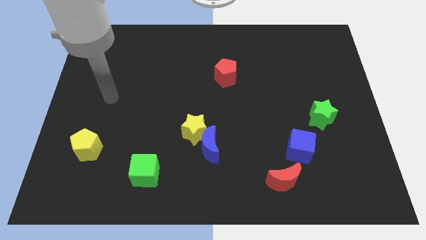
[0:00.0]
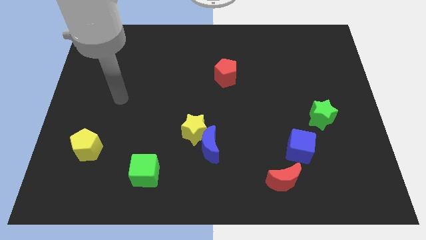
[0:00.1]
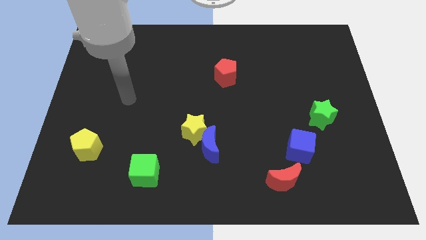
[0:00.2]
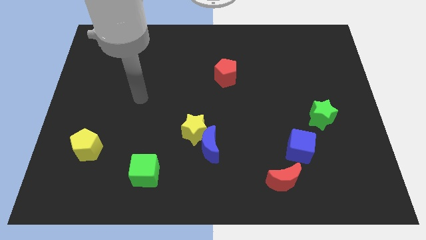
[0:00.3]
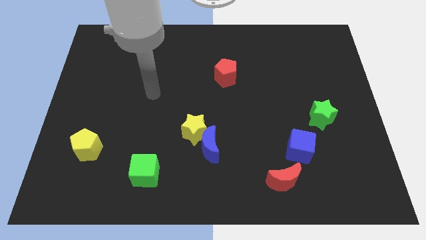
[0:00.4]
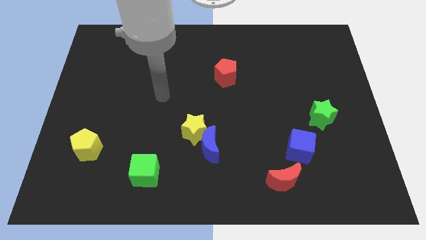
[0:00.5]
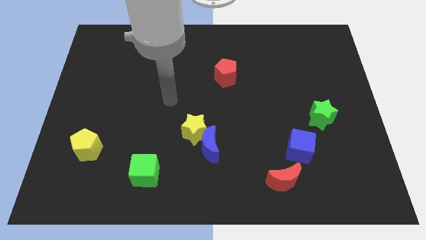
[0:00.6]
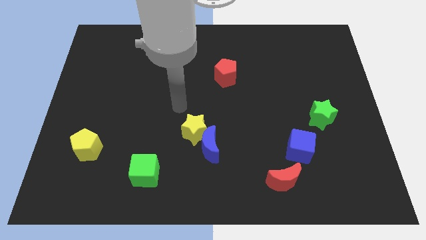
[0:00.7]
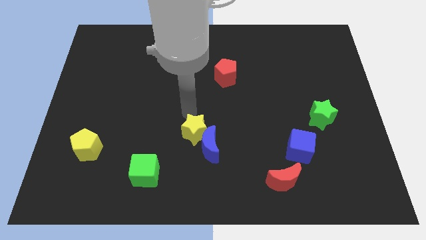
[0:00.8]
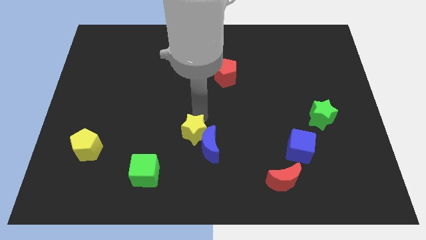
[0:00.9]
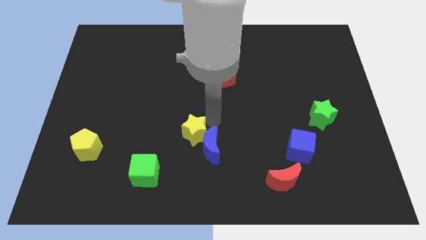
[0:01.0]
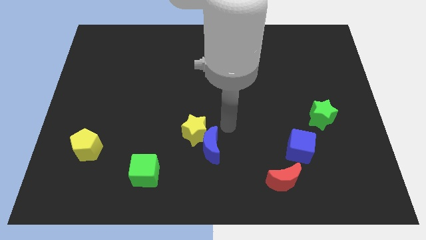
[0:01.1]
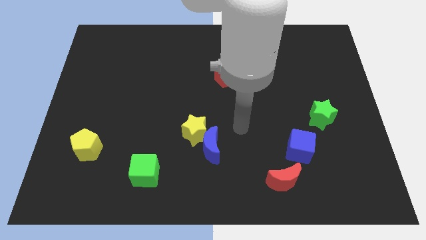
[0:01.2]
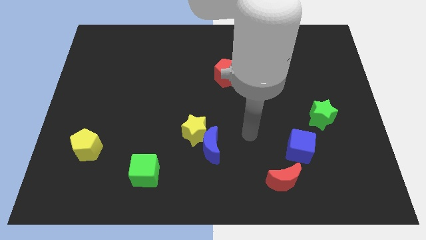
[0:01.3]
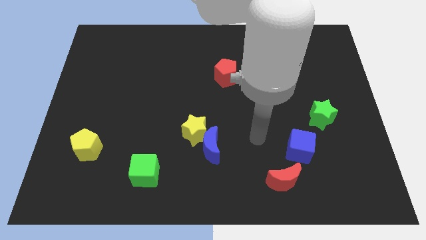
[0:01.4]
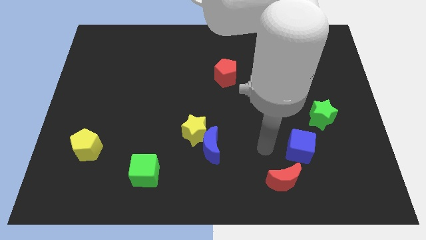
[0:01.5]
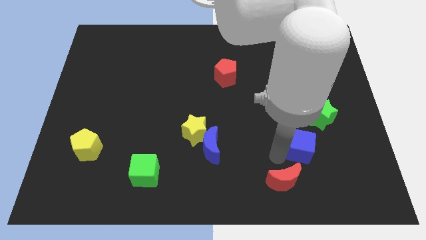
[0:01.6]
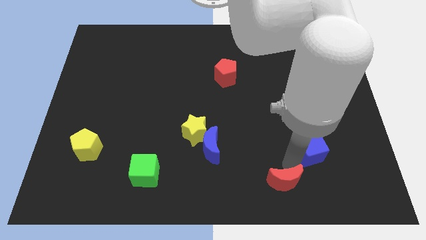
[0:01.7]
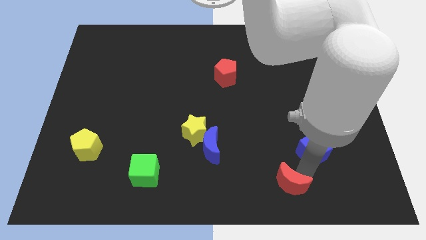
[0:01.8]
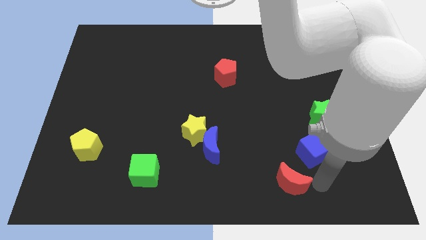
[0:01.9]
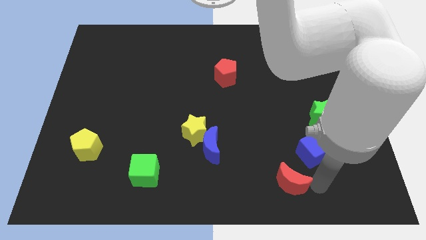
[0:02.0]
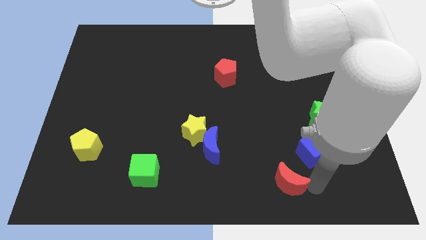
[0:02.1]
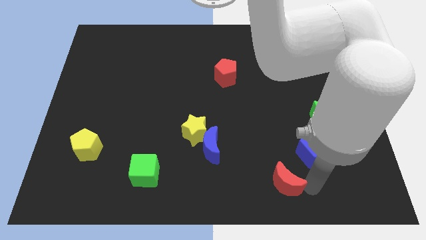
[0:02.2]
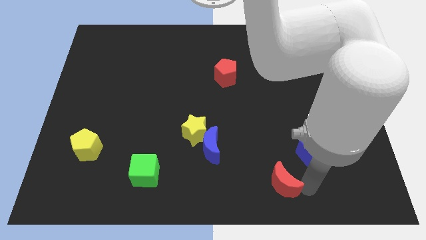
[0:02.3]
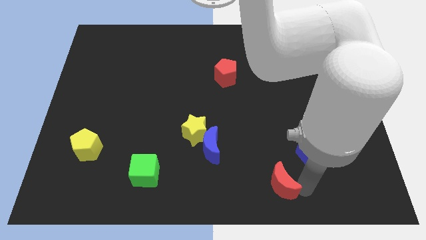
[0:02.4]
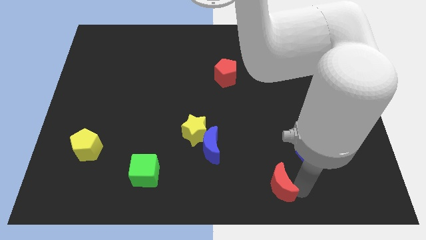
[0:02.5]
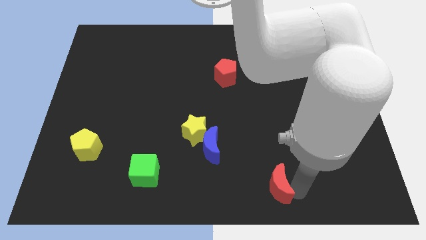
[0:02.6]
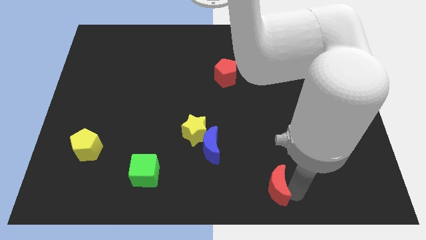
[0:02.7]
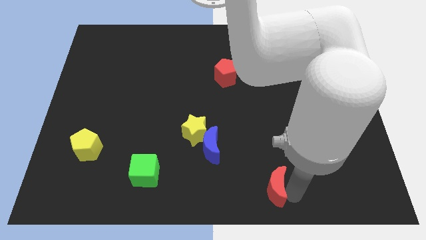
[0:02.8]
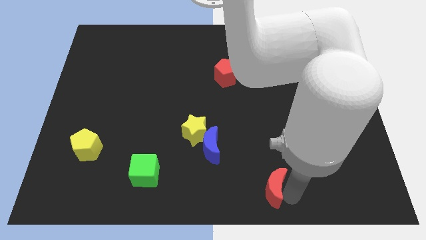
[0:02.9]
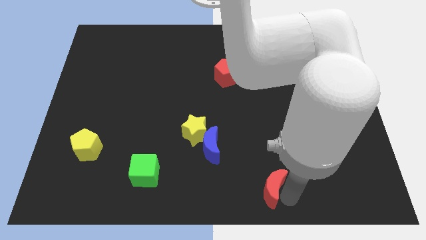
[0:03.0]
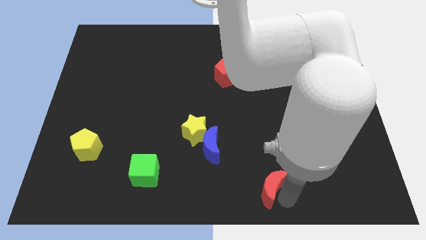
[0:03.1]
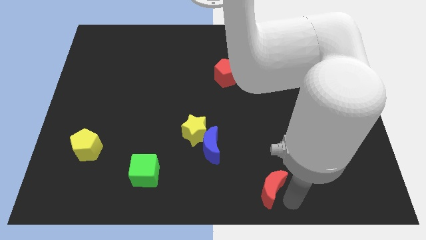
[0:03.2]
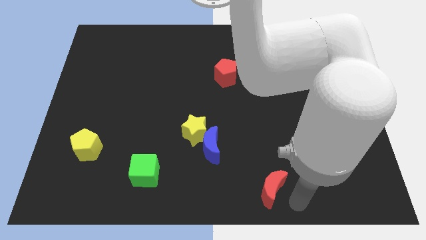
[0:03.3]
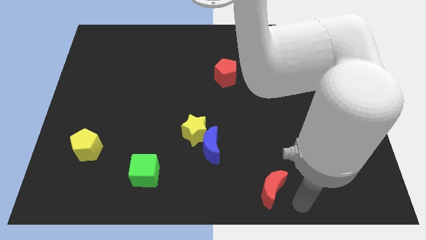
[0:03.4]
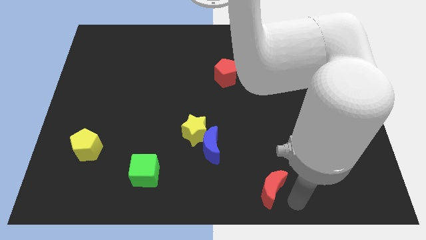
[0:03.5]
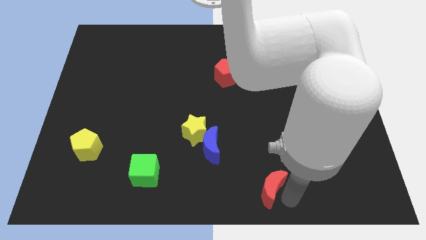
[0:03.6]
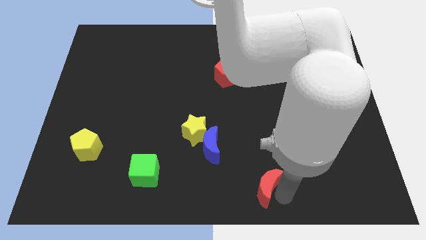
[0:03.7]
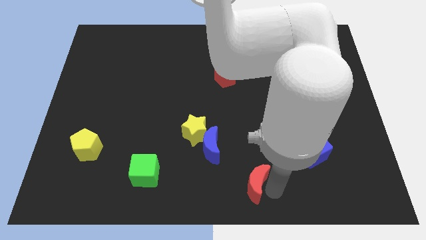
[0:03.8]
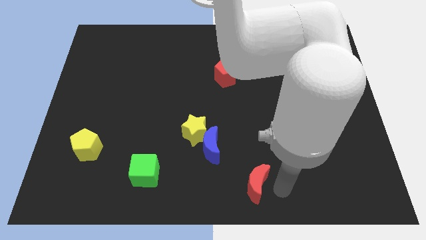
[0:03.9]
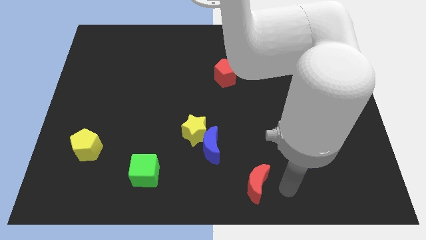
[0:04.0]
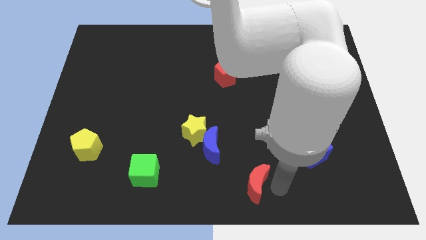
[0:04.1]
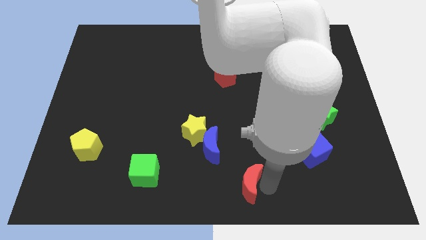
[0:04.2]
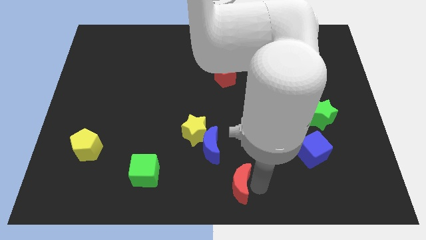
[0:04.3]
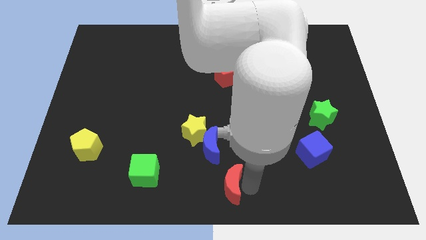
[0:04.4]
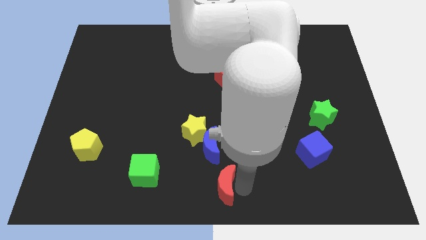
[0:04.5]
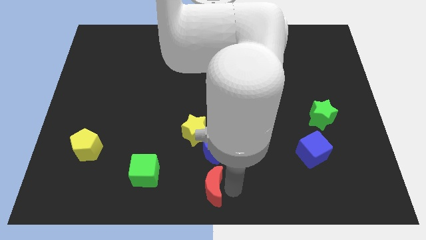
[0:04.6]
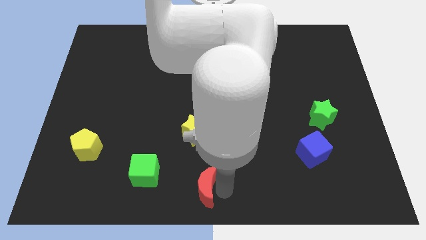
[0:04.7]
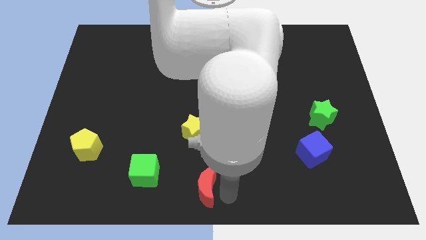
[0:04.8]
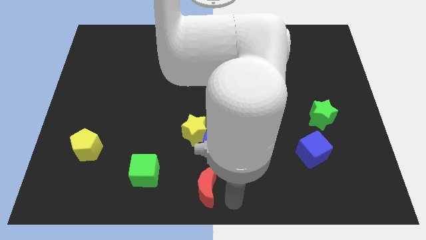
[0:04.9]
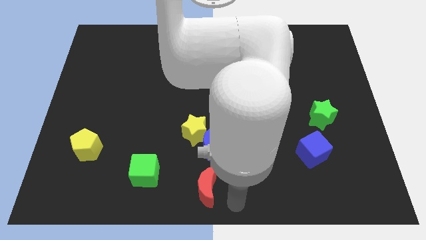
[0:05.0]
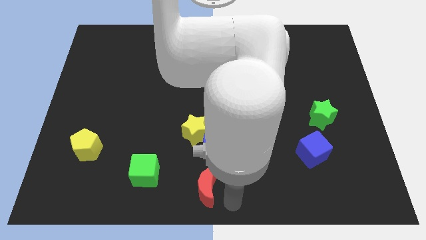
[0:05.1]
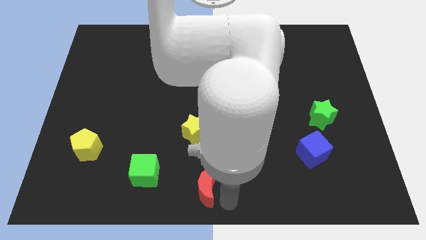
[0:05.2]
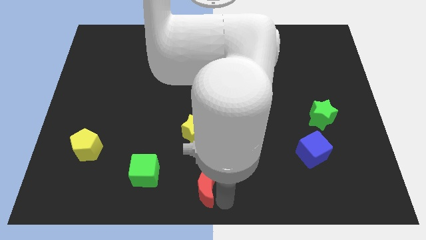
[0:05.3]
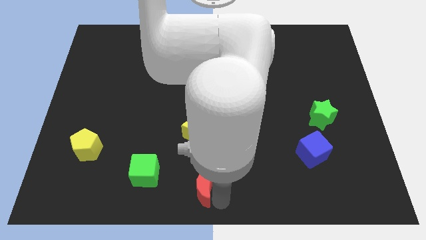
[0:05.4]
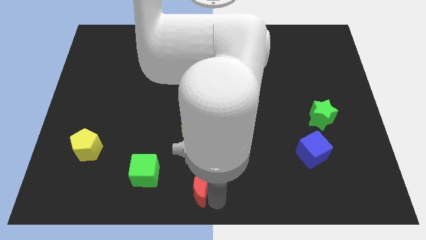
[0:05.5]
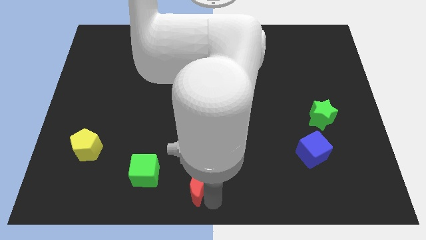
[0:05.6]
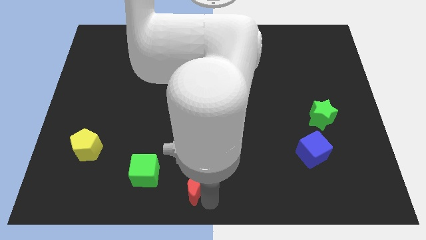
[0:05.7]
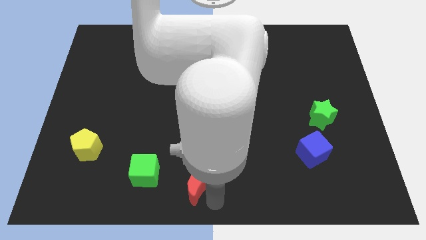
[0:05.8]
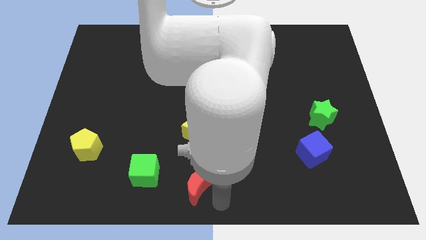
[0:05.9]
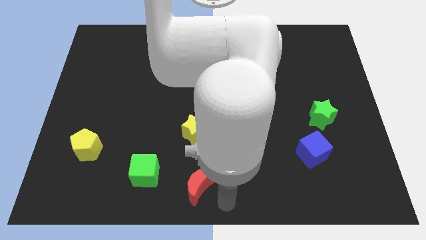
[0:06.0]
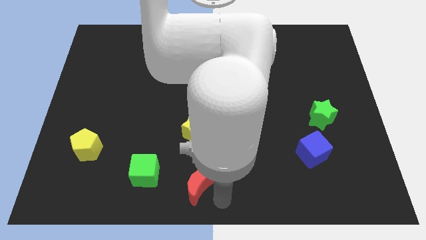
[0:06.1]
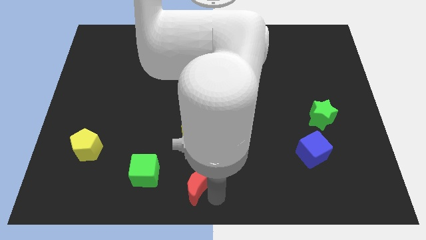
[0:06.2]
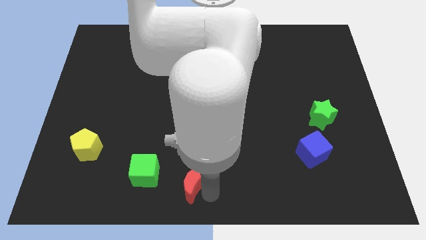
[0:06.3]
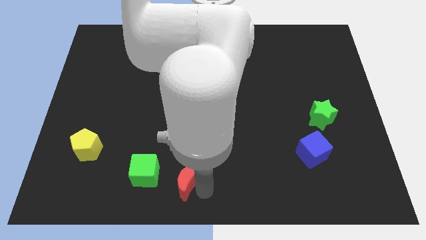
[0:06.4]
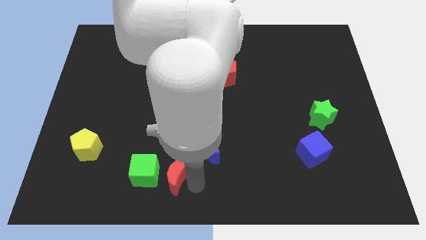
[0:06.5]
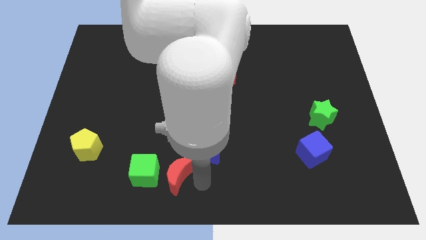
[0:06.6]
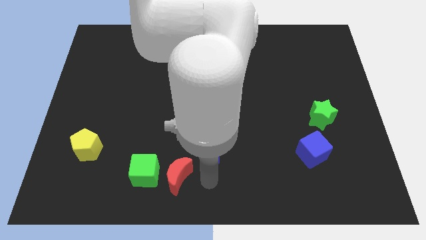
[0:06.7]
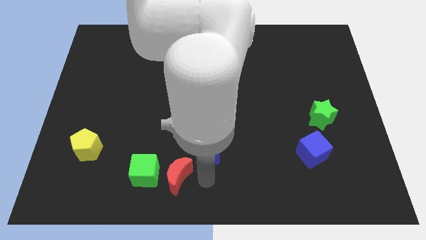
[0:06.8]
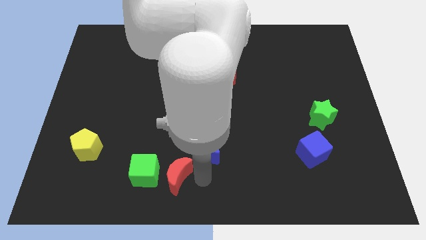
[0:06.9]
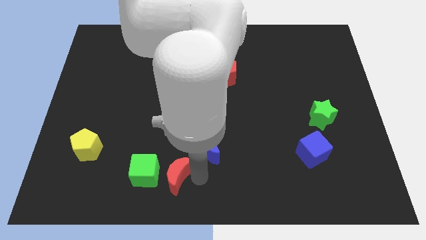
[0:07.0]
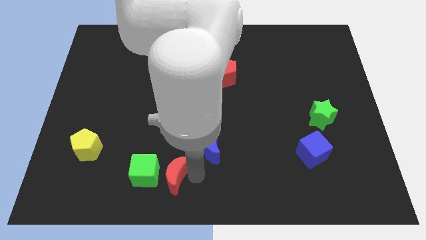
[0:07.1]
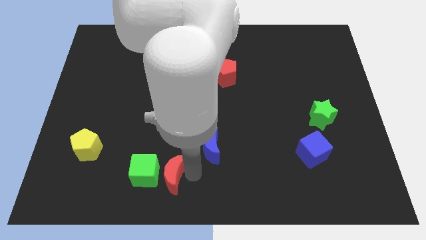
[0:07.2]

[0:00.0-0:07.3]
put the red moon towards the green cube

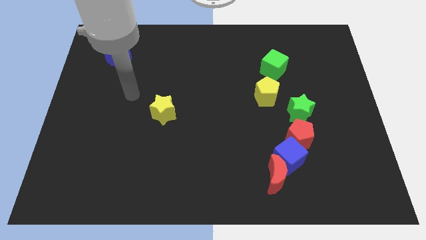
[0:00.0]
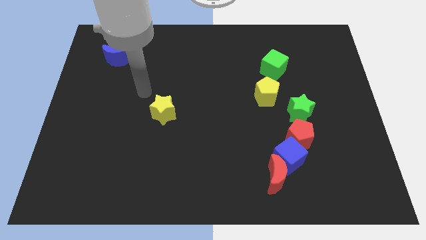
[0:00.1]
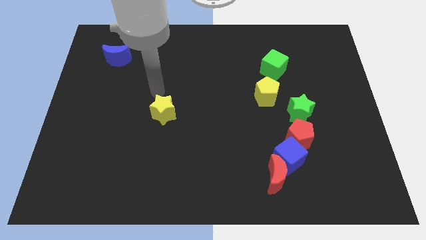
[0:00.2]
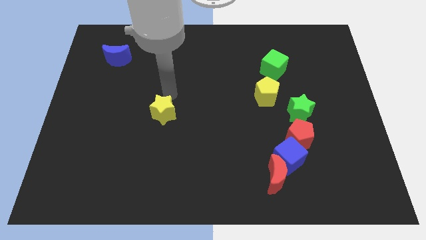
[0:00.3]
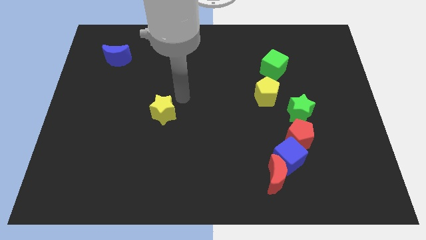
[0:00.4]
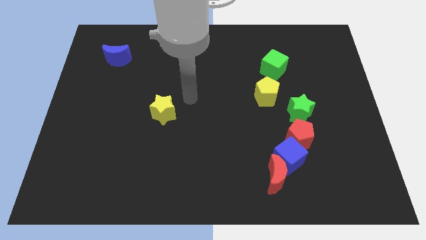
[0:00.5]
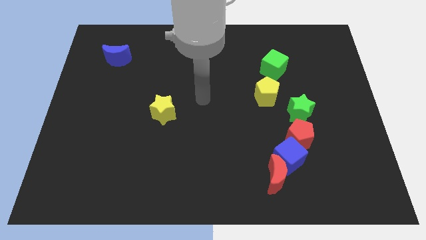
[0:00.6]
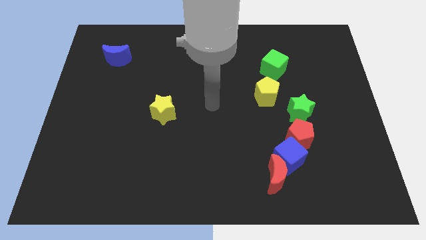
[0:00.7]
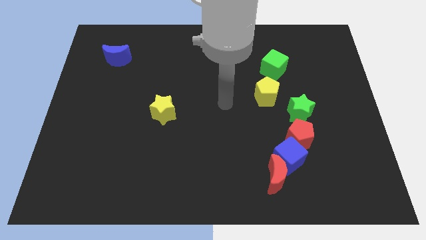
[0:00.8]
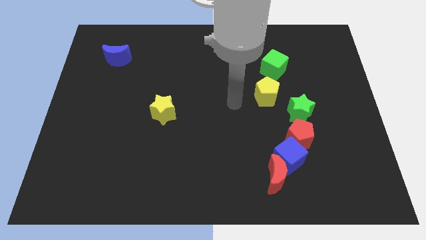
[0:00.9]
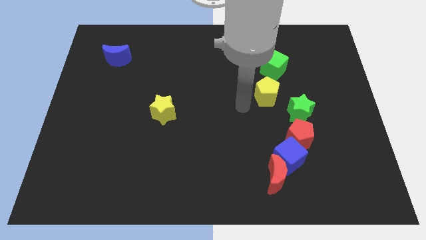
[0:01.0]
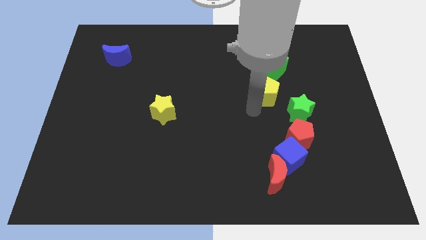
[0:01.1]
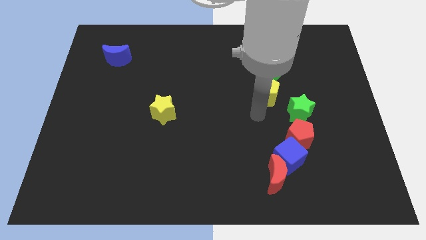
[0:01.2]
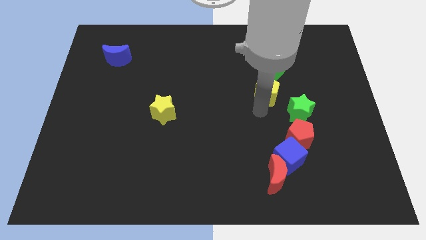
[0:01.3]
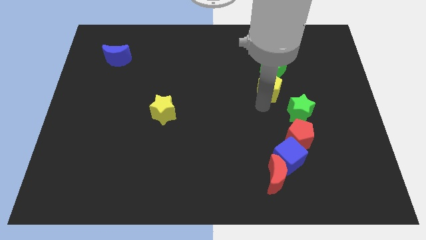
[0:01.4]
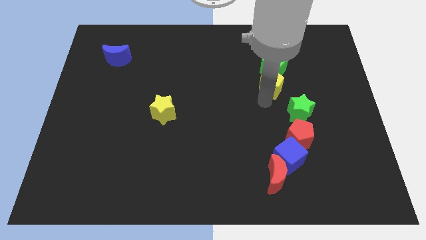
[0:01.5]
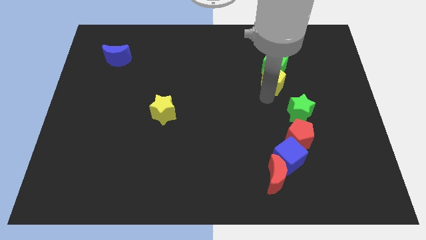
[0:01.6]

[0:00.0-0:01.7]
slide the yellow pentagon close to the green cube
